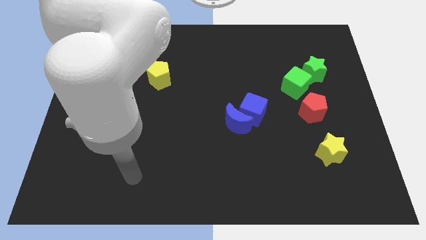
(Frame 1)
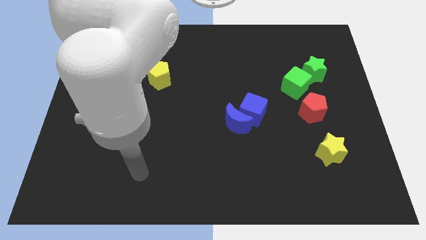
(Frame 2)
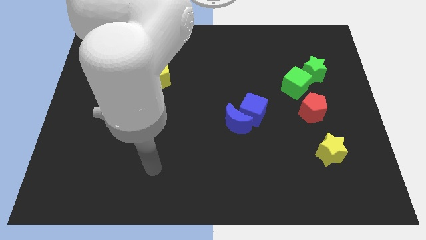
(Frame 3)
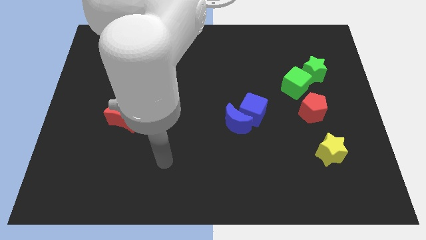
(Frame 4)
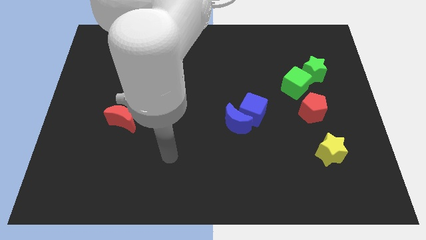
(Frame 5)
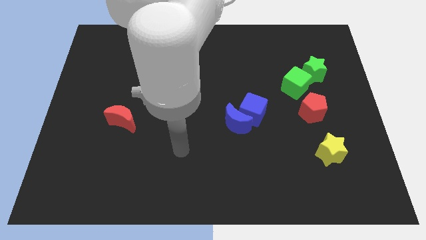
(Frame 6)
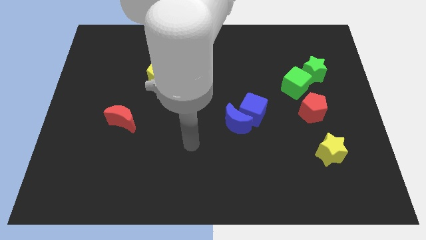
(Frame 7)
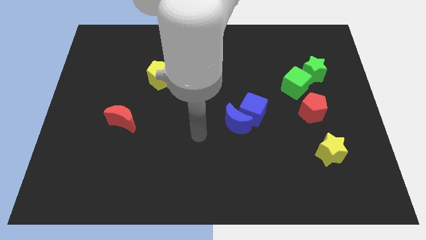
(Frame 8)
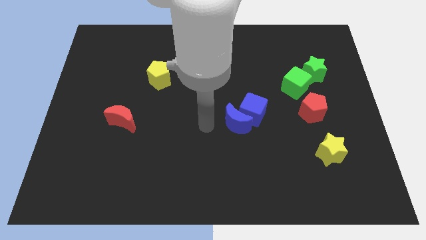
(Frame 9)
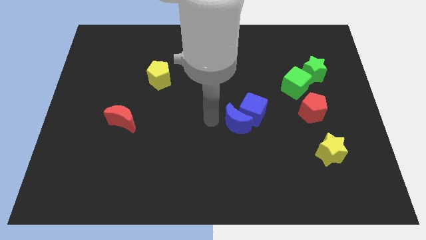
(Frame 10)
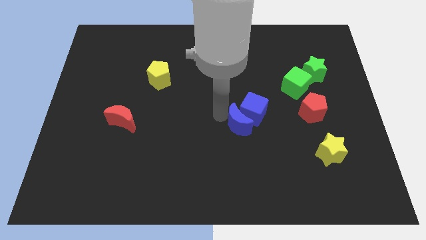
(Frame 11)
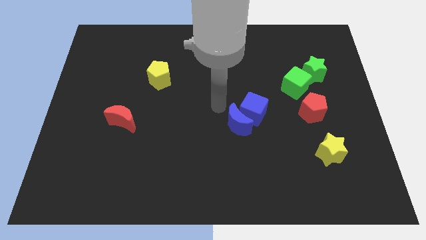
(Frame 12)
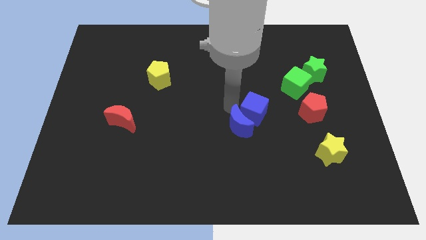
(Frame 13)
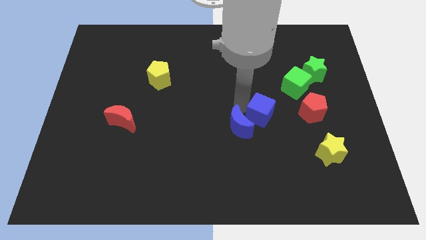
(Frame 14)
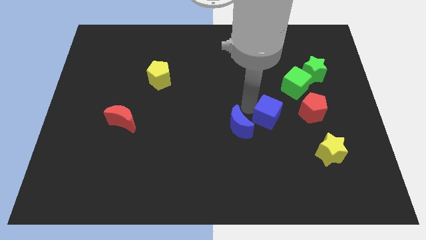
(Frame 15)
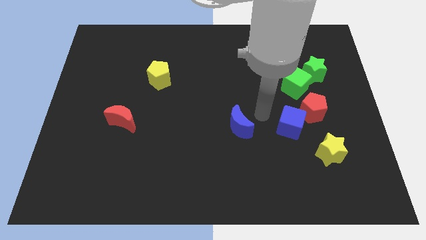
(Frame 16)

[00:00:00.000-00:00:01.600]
pull the blue moon apart from the blue cube

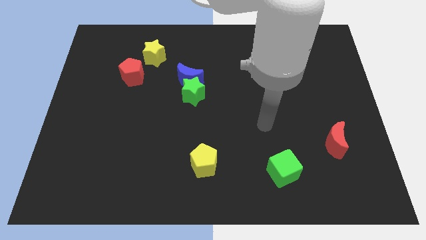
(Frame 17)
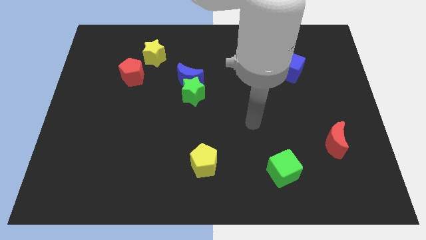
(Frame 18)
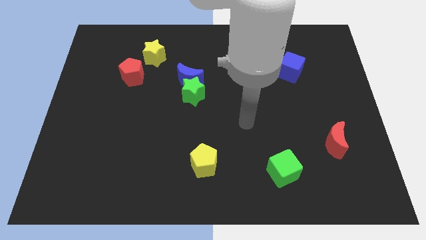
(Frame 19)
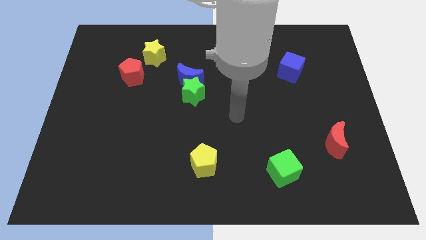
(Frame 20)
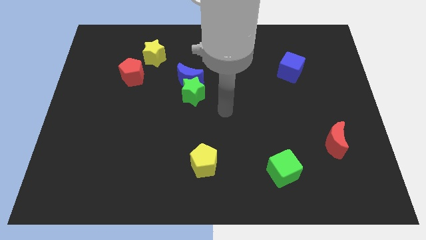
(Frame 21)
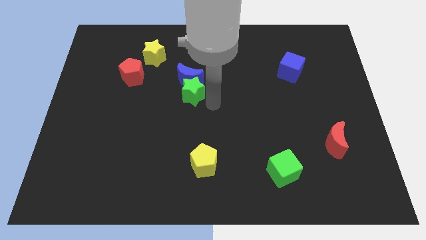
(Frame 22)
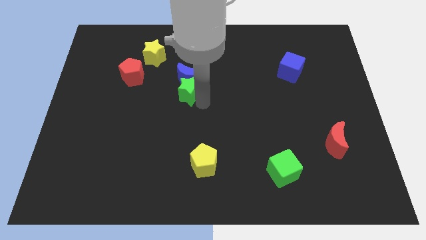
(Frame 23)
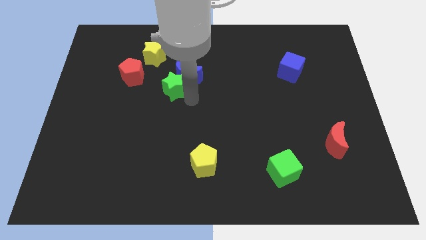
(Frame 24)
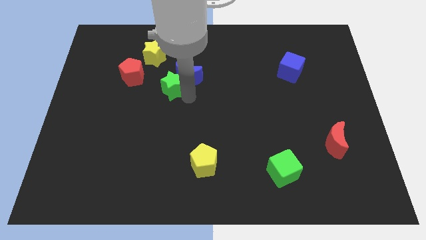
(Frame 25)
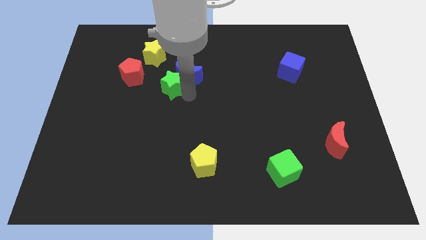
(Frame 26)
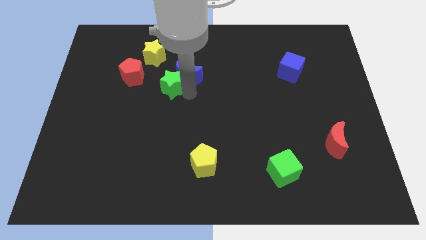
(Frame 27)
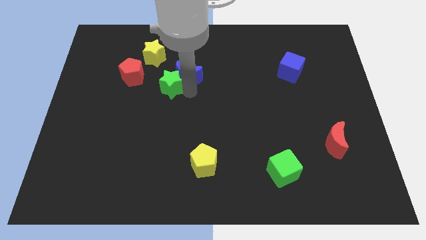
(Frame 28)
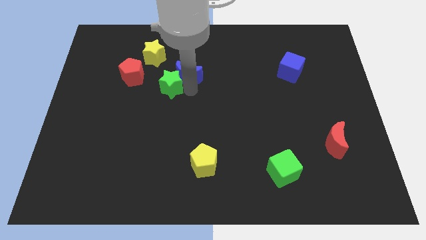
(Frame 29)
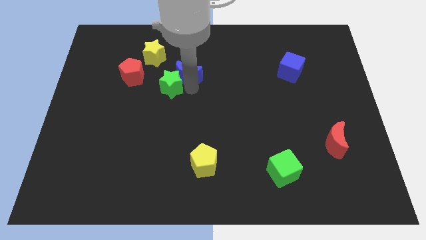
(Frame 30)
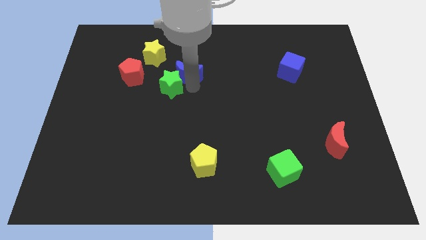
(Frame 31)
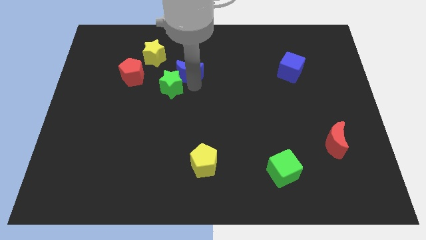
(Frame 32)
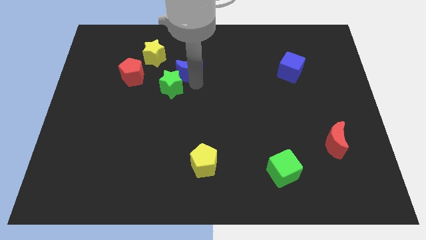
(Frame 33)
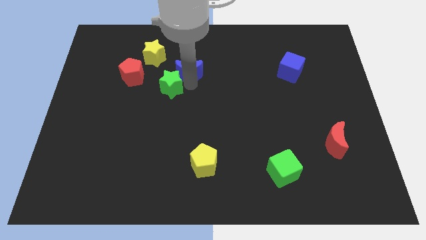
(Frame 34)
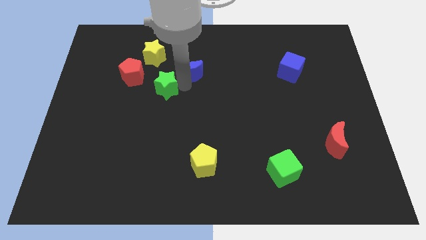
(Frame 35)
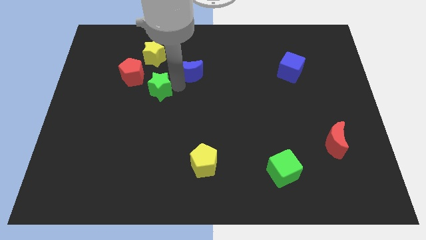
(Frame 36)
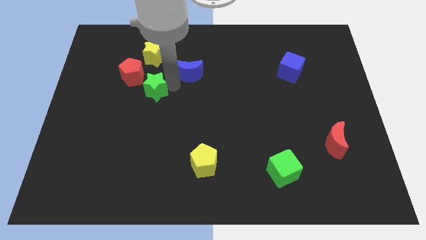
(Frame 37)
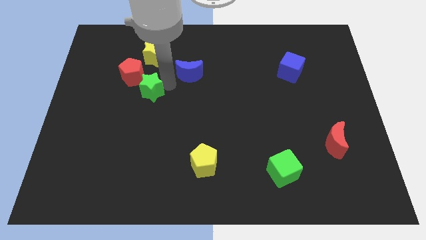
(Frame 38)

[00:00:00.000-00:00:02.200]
separate the blue moon from the green star

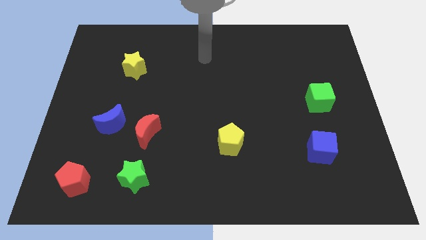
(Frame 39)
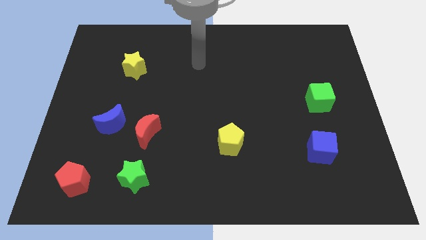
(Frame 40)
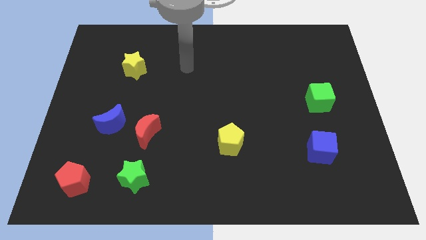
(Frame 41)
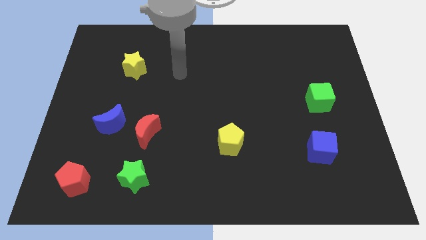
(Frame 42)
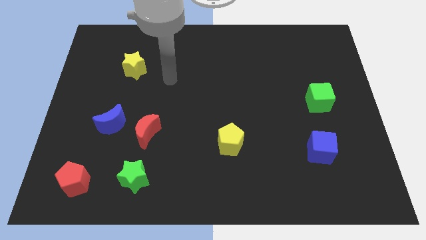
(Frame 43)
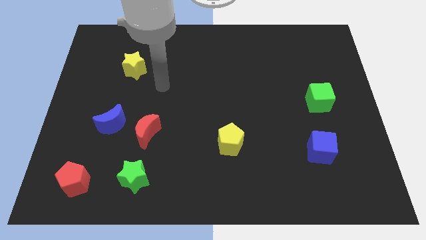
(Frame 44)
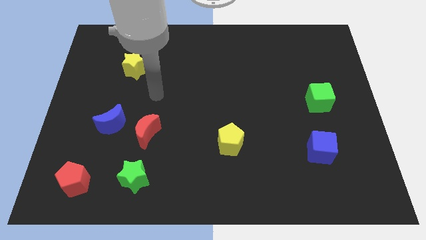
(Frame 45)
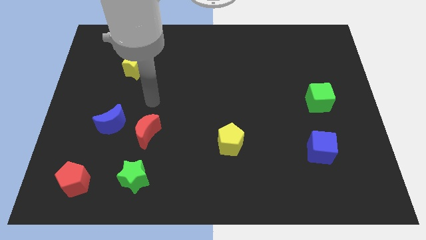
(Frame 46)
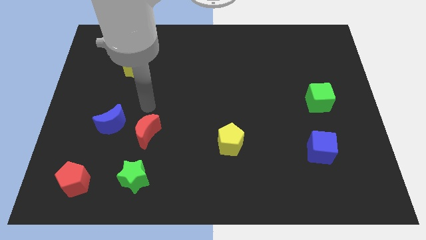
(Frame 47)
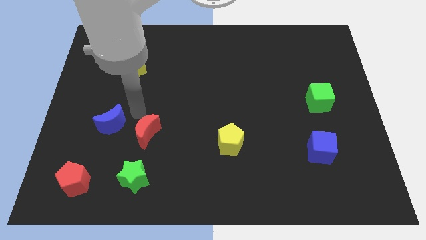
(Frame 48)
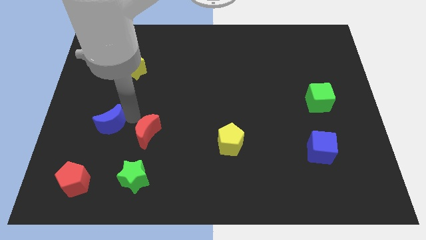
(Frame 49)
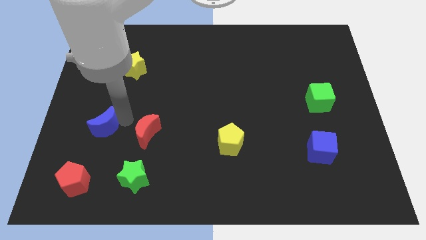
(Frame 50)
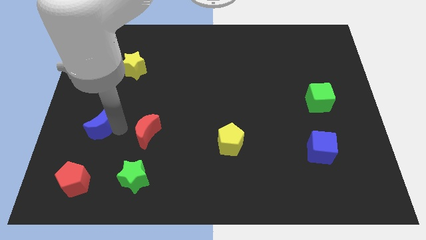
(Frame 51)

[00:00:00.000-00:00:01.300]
move the red moon away from the blue moon

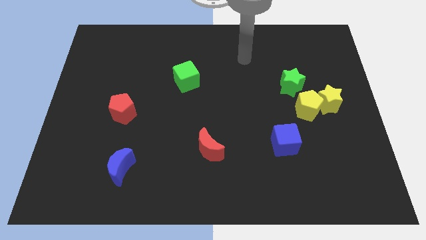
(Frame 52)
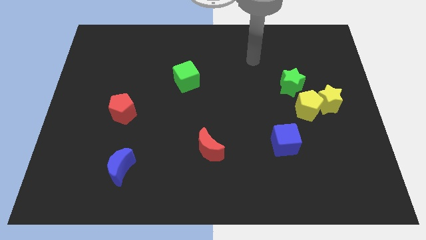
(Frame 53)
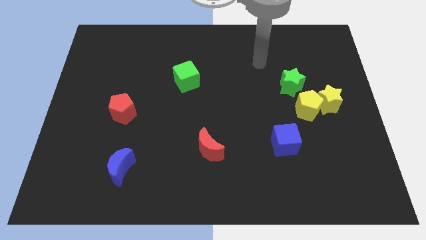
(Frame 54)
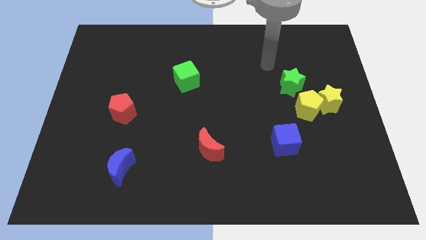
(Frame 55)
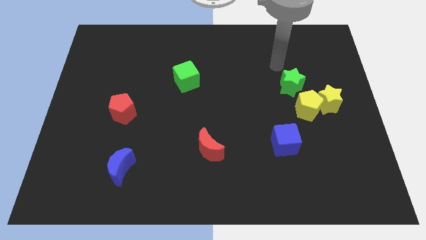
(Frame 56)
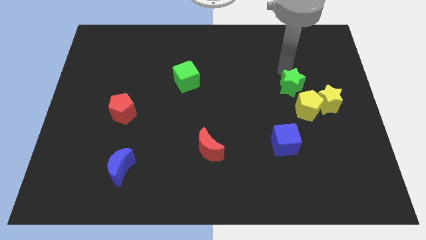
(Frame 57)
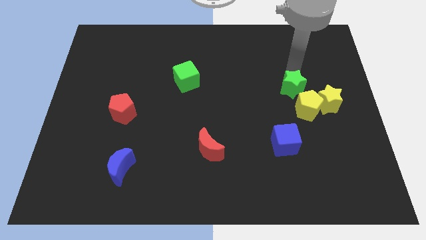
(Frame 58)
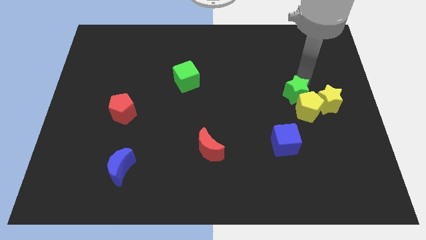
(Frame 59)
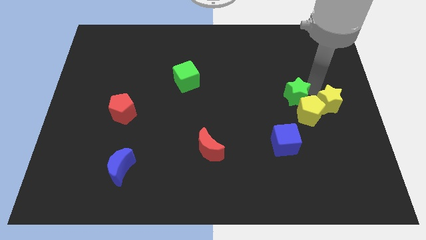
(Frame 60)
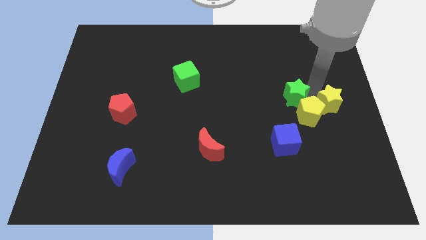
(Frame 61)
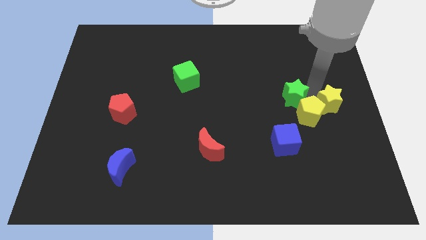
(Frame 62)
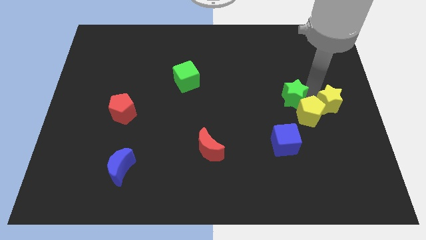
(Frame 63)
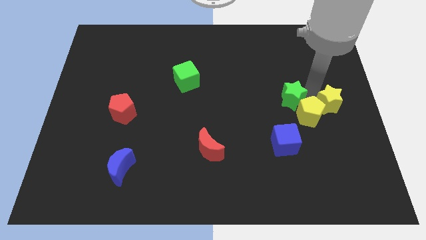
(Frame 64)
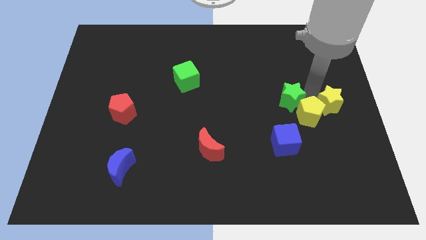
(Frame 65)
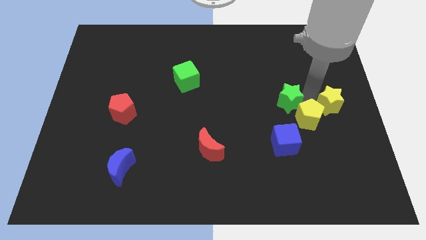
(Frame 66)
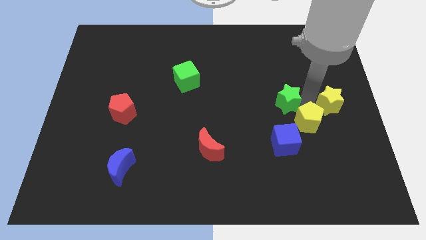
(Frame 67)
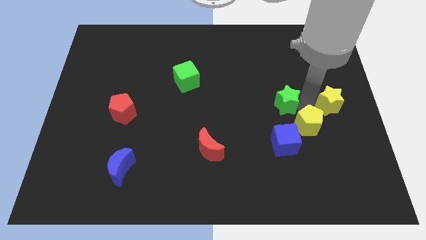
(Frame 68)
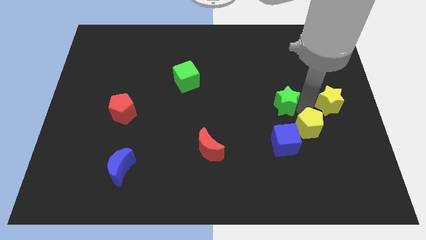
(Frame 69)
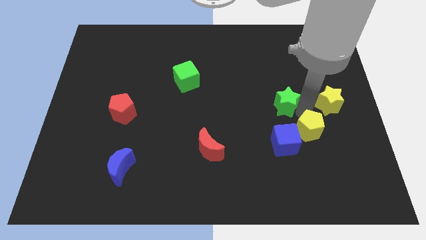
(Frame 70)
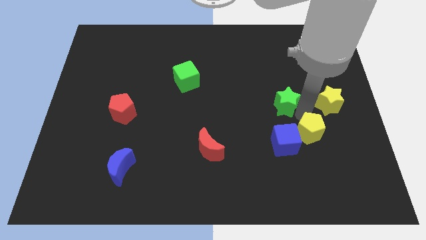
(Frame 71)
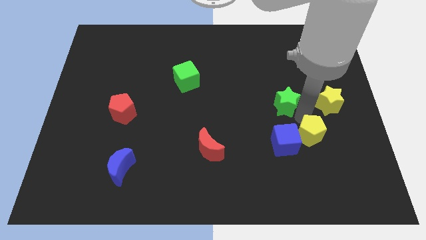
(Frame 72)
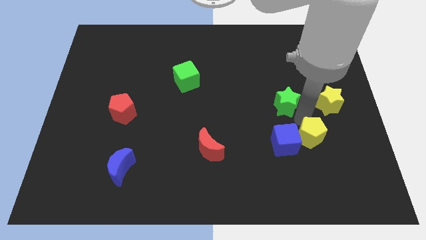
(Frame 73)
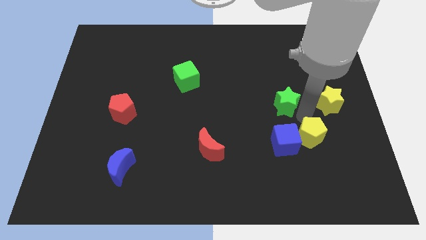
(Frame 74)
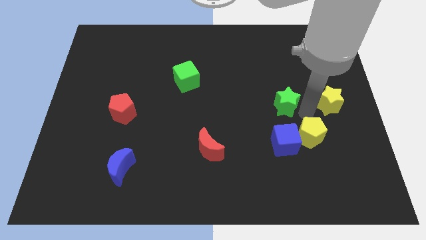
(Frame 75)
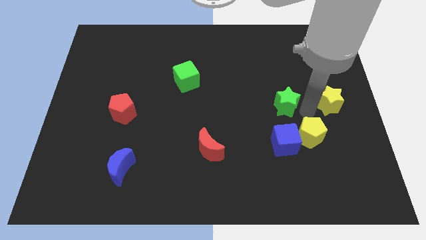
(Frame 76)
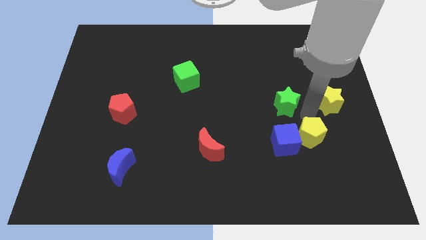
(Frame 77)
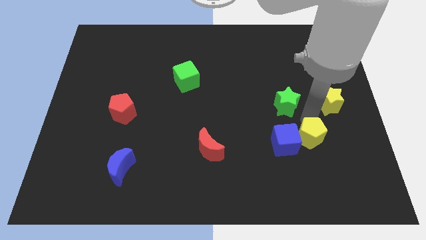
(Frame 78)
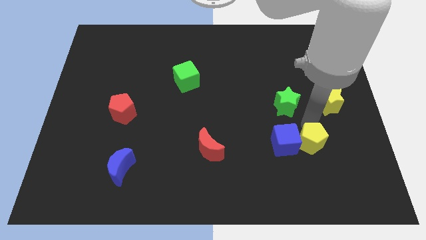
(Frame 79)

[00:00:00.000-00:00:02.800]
separate the yellow pentagon from the yellow star and green star

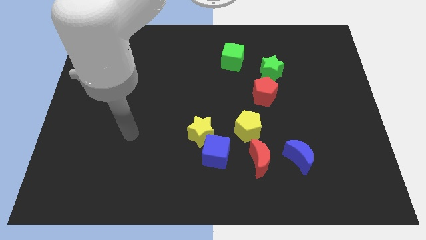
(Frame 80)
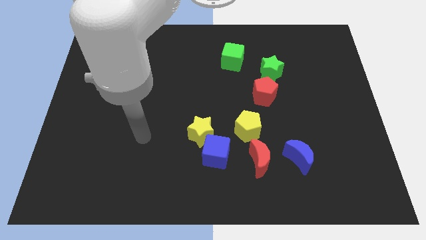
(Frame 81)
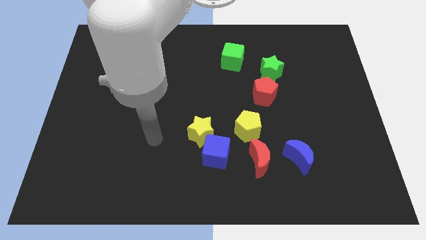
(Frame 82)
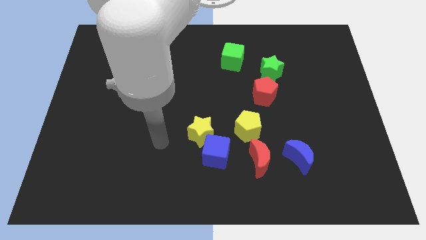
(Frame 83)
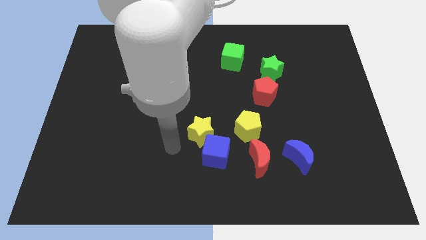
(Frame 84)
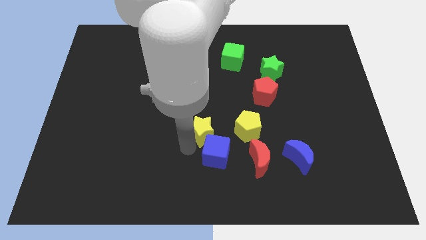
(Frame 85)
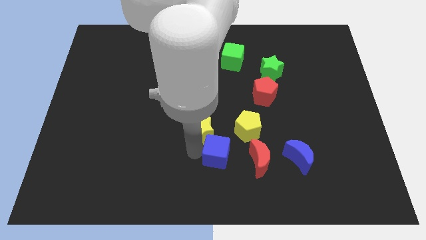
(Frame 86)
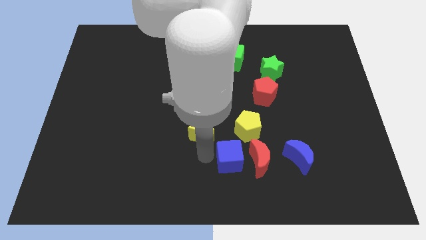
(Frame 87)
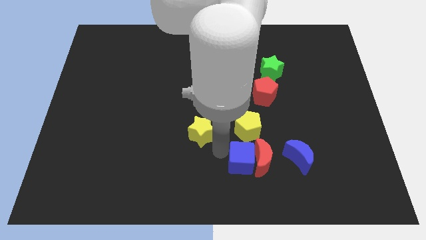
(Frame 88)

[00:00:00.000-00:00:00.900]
move the yellow star away from the blue cube

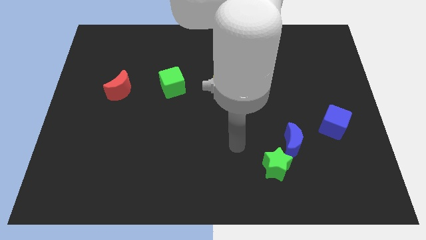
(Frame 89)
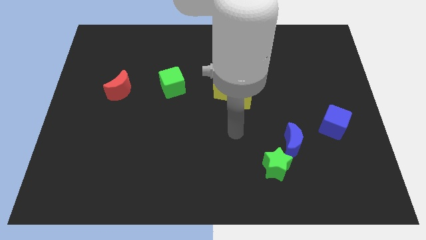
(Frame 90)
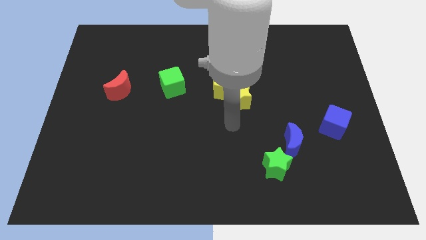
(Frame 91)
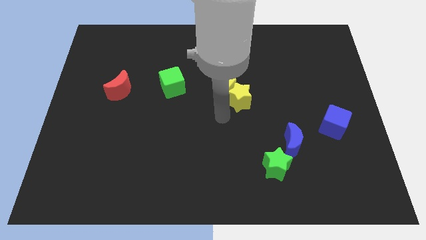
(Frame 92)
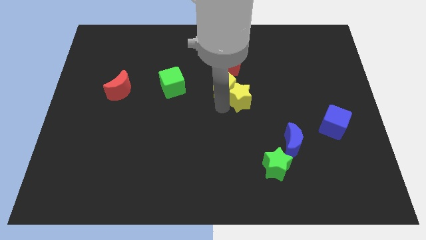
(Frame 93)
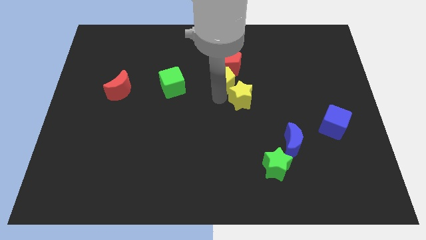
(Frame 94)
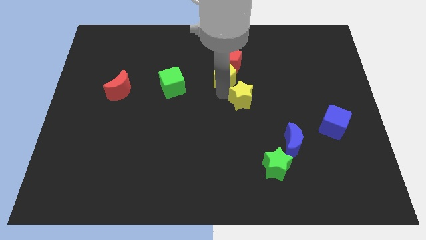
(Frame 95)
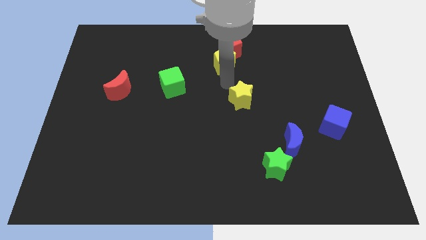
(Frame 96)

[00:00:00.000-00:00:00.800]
pull the yellow star apart from the yellow pentagon
